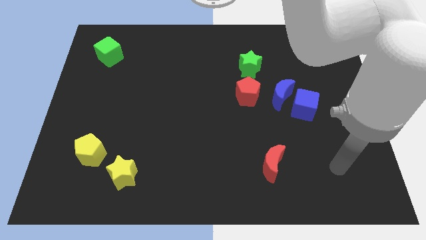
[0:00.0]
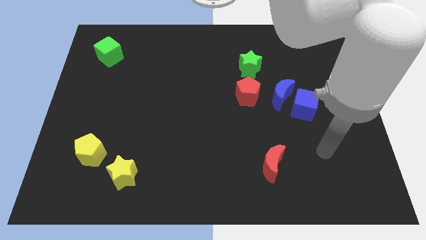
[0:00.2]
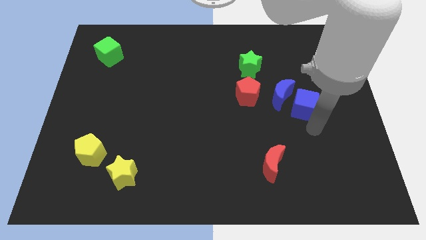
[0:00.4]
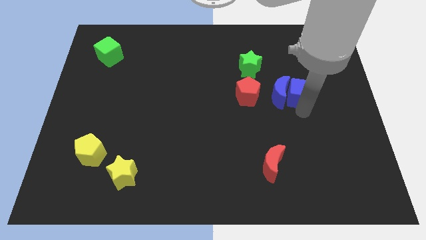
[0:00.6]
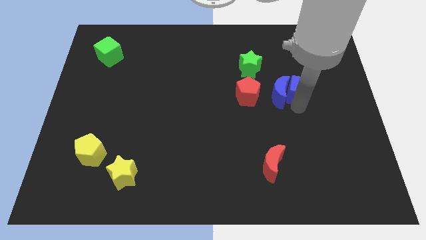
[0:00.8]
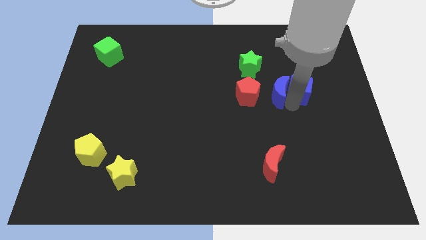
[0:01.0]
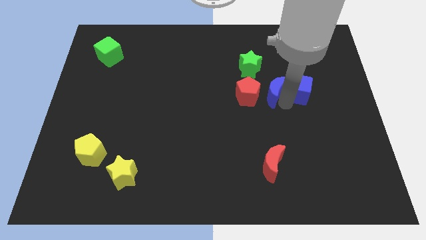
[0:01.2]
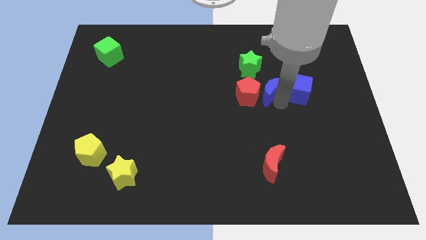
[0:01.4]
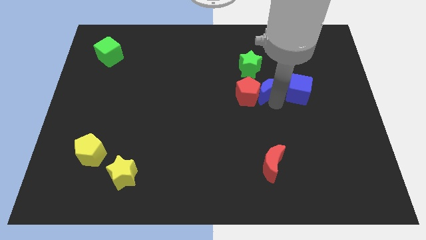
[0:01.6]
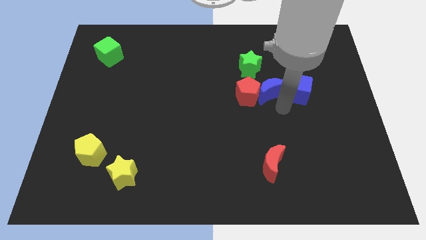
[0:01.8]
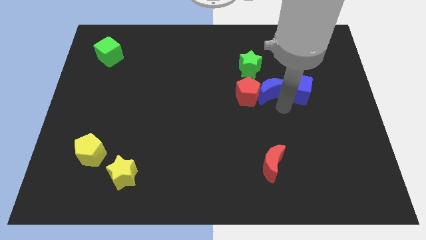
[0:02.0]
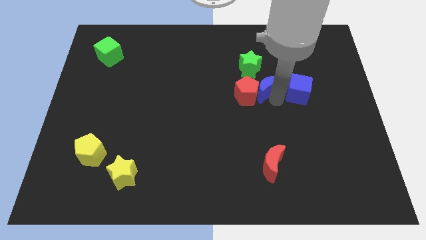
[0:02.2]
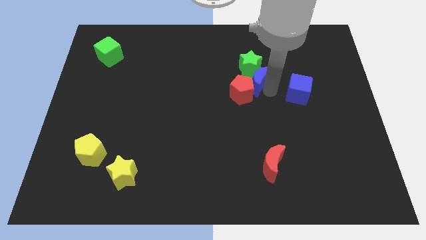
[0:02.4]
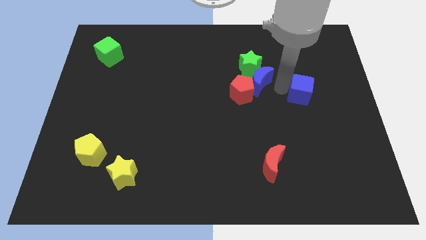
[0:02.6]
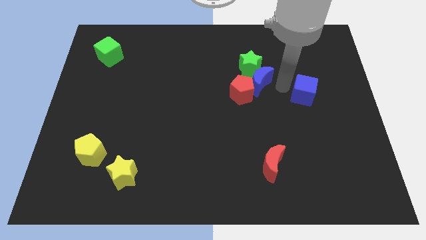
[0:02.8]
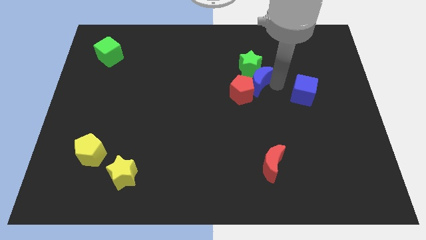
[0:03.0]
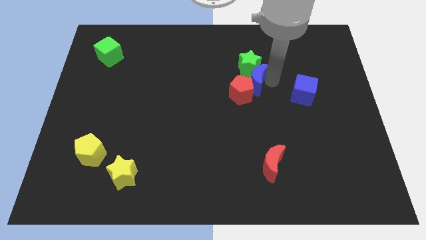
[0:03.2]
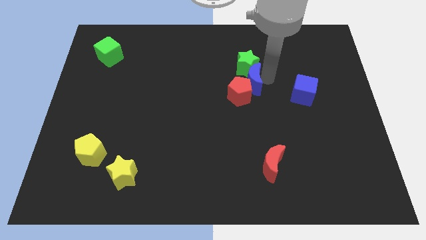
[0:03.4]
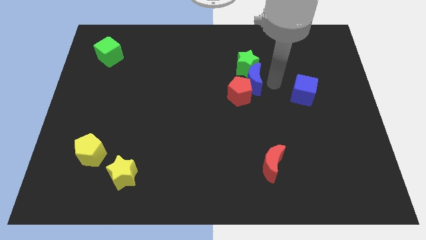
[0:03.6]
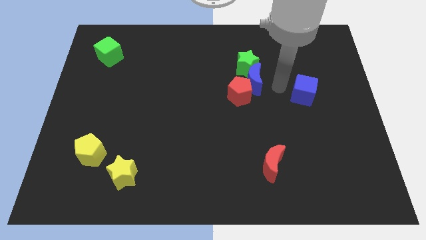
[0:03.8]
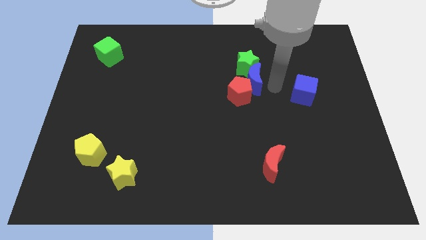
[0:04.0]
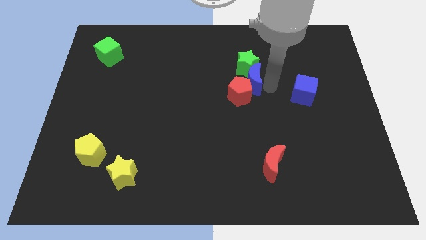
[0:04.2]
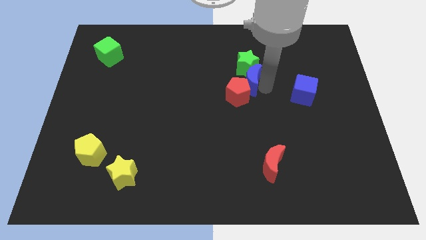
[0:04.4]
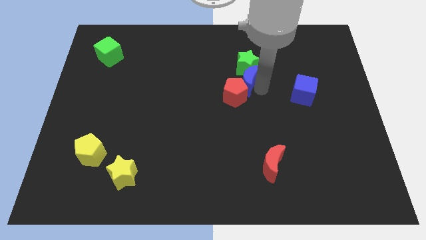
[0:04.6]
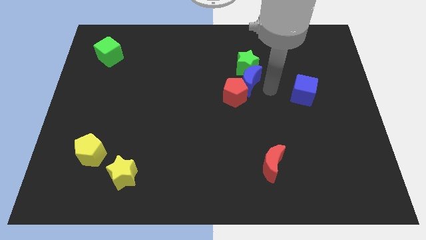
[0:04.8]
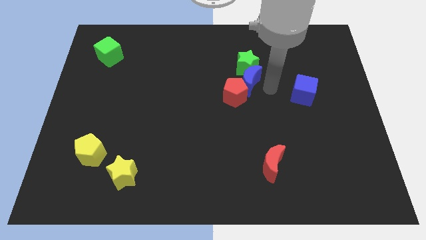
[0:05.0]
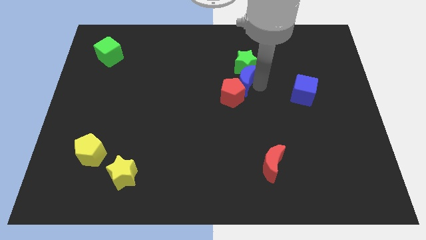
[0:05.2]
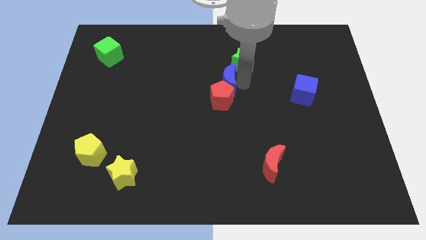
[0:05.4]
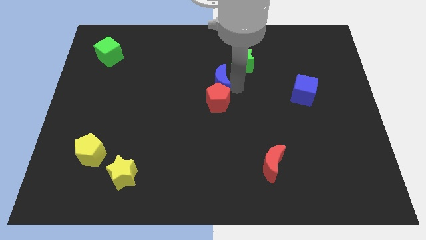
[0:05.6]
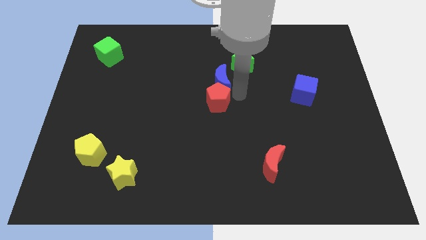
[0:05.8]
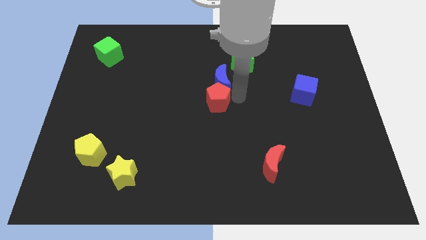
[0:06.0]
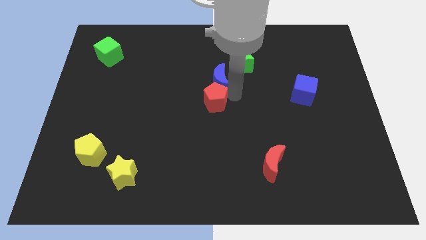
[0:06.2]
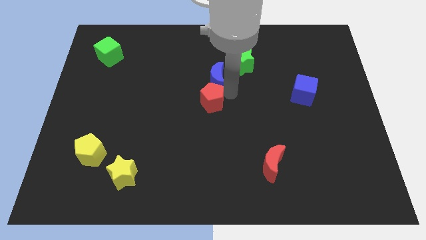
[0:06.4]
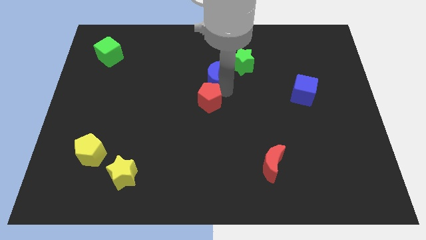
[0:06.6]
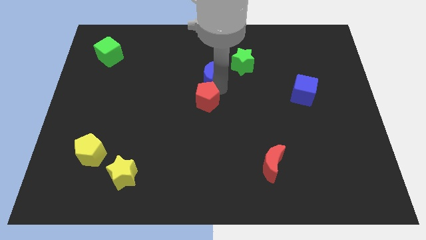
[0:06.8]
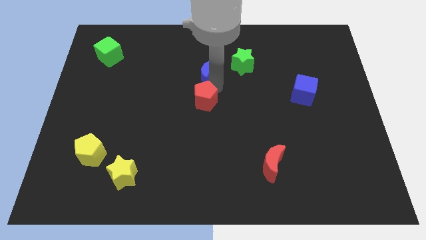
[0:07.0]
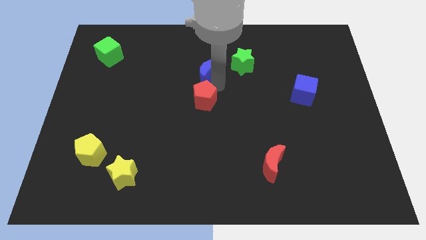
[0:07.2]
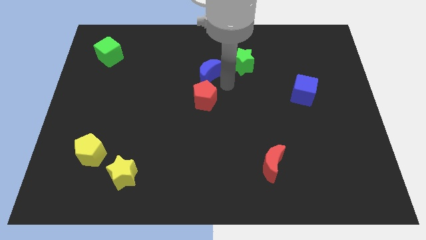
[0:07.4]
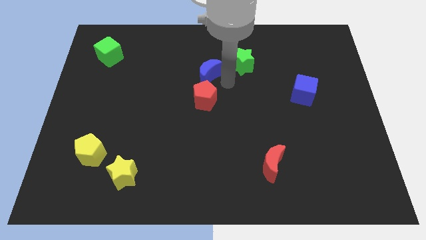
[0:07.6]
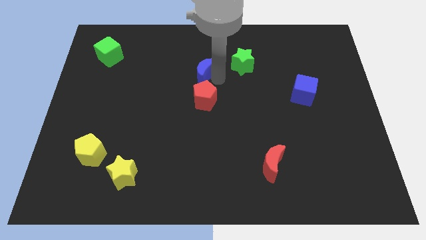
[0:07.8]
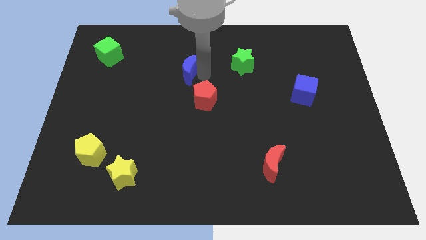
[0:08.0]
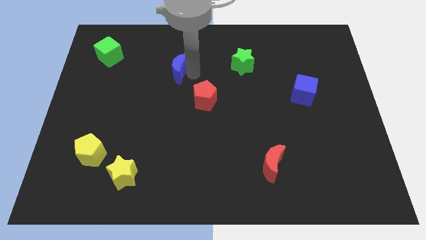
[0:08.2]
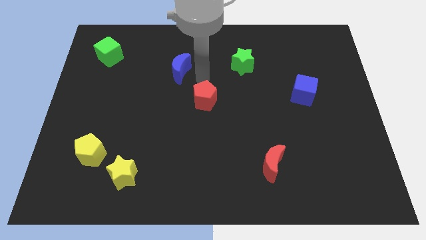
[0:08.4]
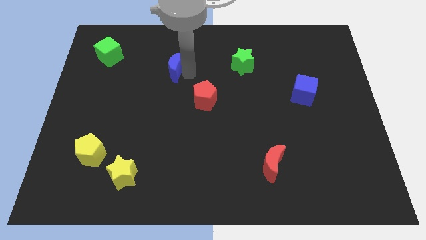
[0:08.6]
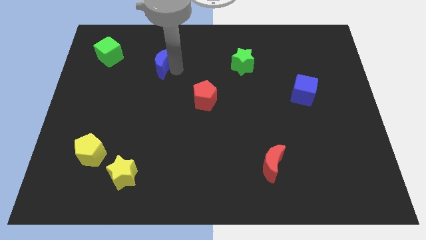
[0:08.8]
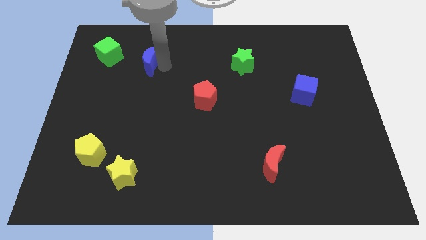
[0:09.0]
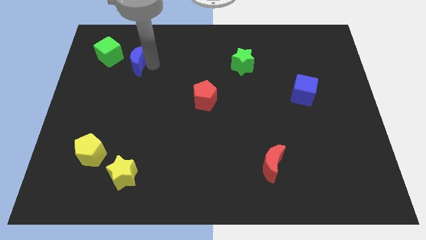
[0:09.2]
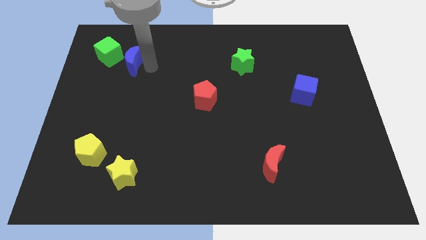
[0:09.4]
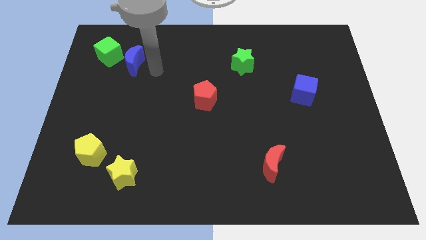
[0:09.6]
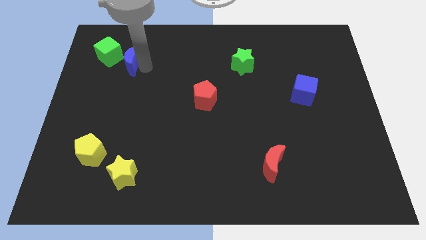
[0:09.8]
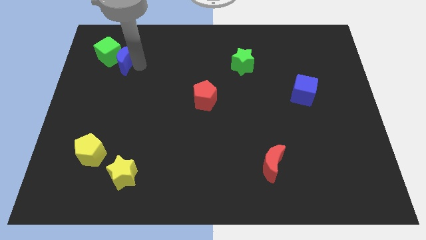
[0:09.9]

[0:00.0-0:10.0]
move the blue moon to the green cube

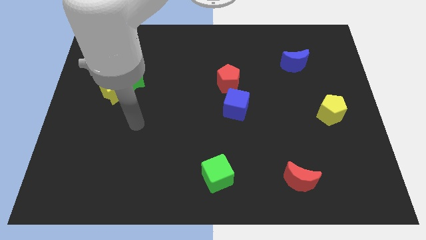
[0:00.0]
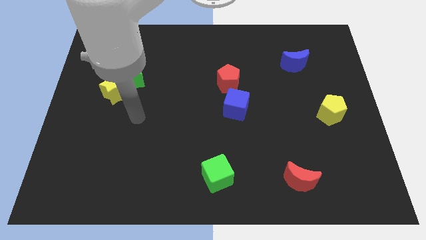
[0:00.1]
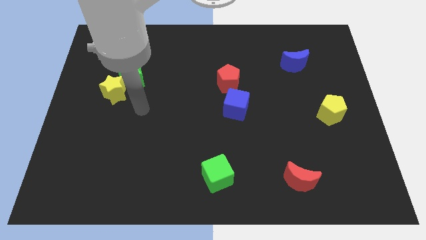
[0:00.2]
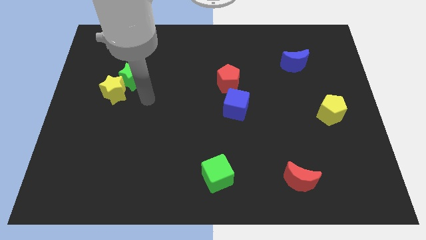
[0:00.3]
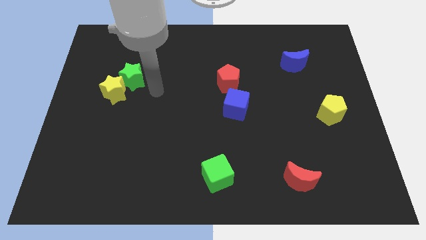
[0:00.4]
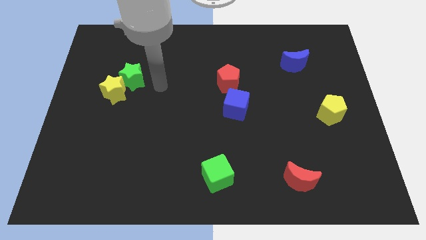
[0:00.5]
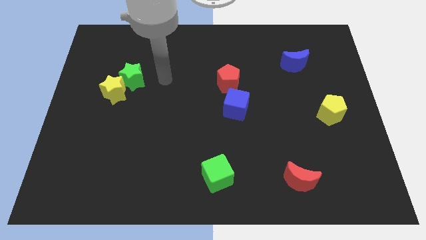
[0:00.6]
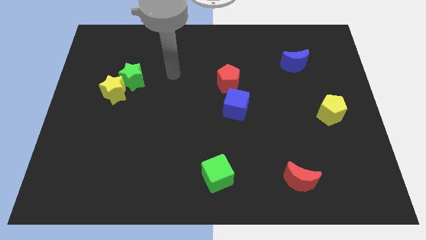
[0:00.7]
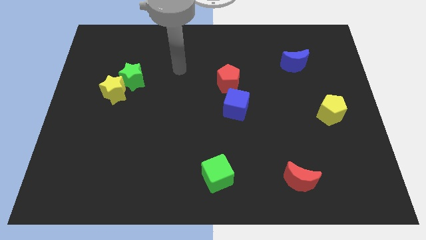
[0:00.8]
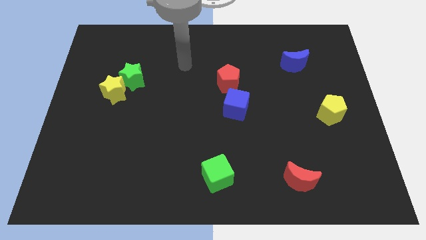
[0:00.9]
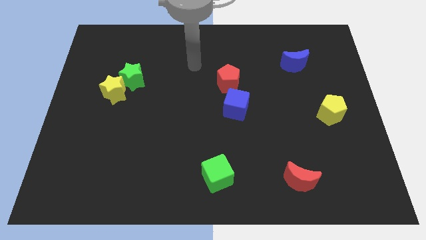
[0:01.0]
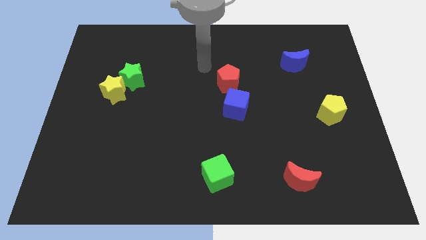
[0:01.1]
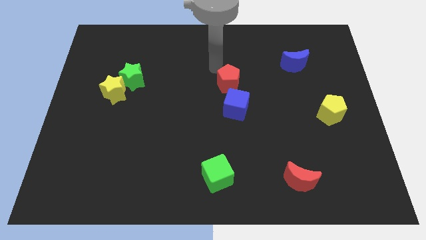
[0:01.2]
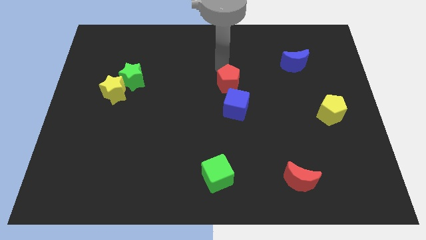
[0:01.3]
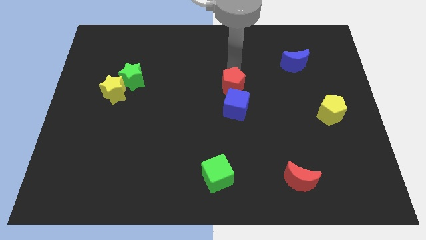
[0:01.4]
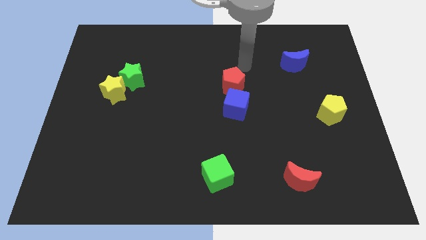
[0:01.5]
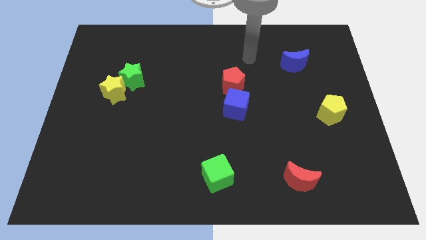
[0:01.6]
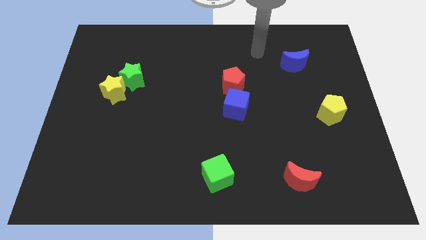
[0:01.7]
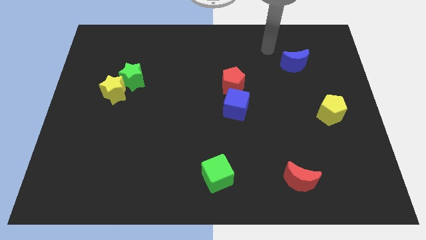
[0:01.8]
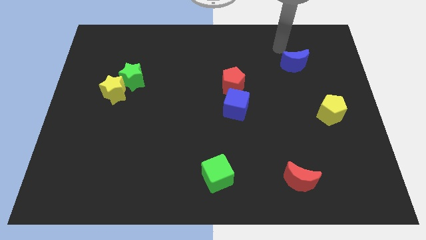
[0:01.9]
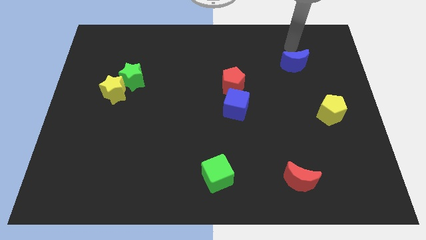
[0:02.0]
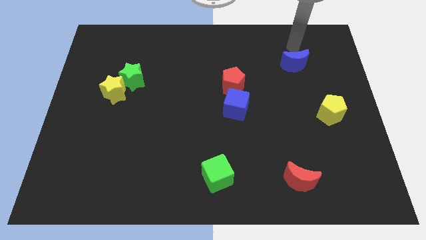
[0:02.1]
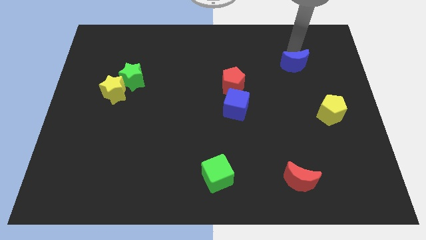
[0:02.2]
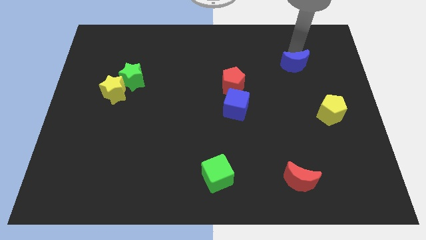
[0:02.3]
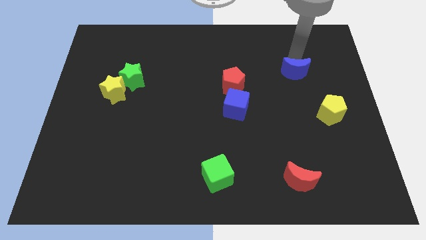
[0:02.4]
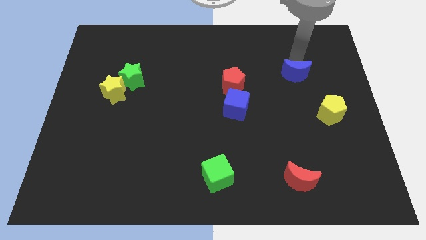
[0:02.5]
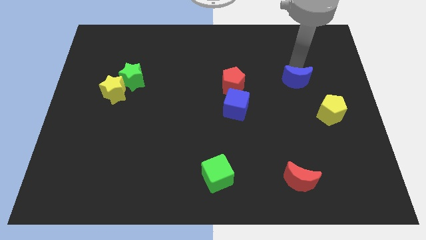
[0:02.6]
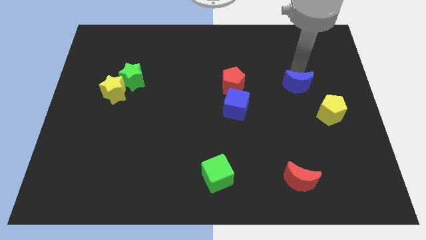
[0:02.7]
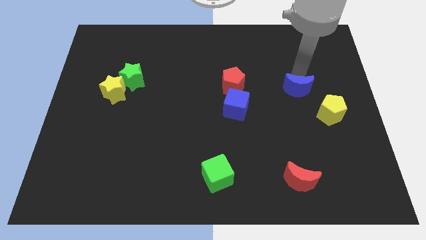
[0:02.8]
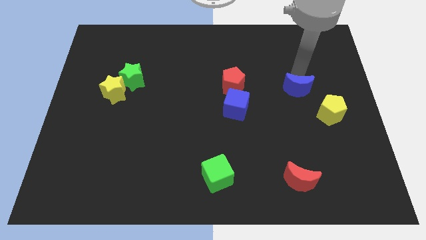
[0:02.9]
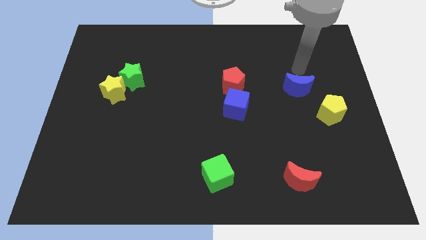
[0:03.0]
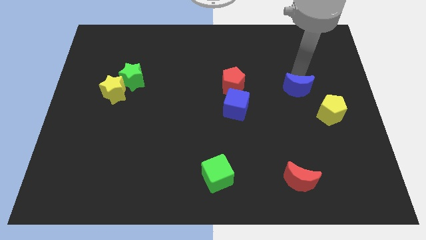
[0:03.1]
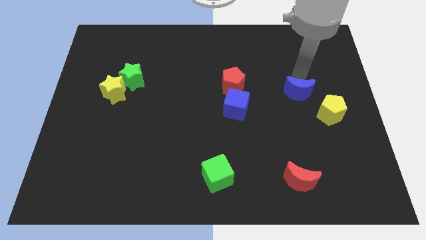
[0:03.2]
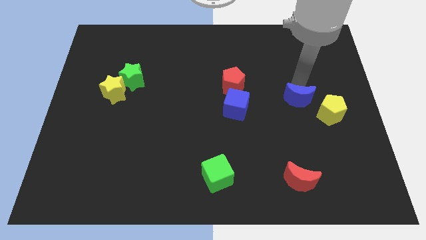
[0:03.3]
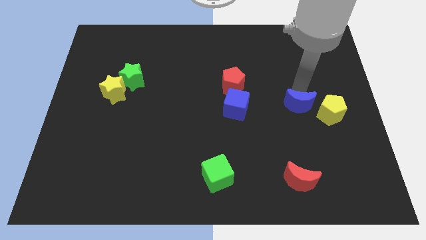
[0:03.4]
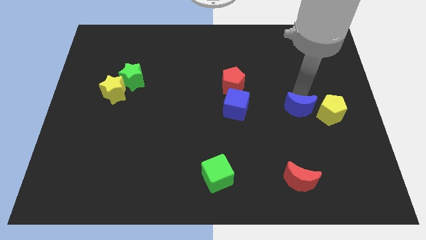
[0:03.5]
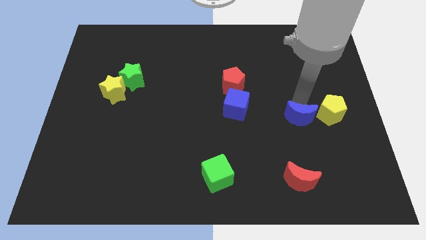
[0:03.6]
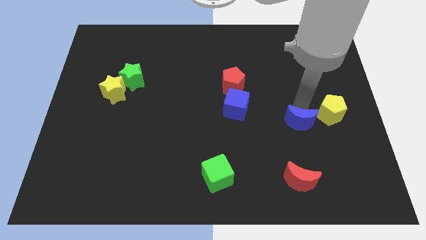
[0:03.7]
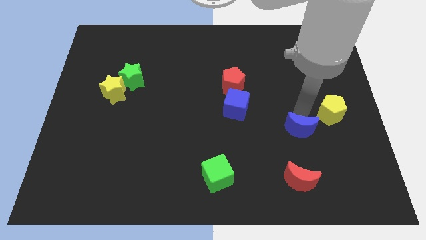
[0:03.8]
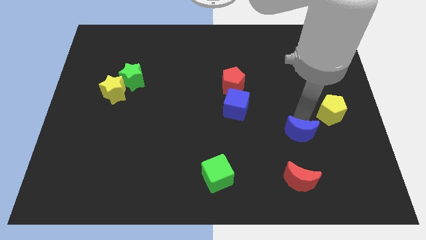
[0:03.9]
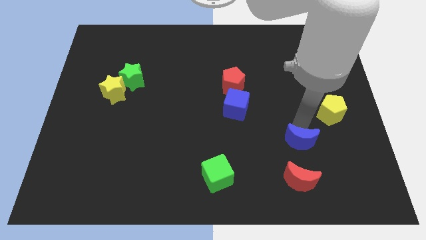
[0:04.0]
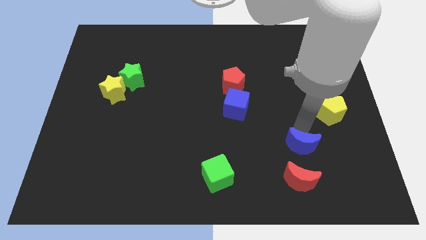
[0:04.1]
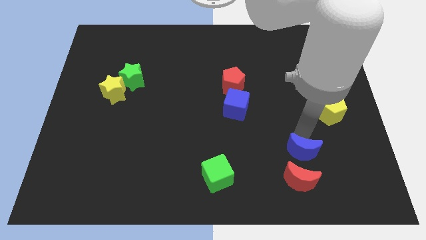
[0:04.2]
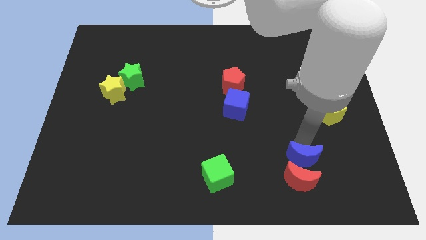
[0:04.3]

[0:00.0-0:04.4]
slide the blue moon towards the red moon
